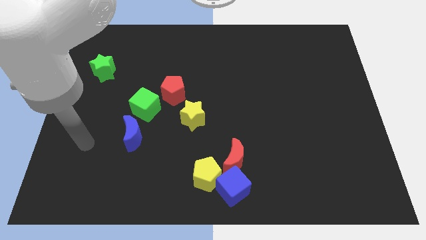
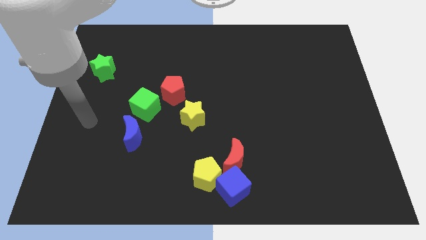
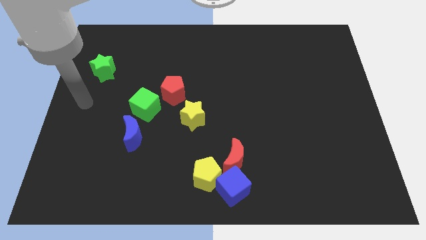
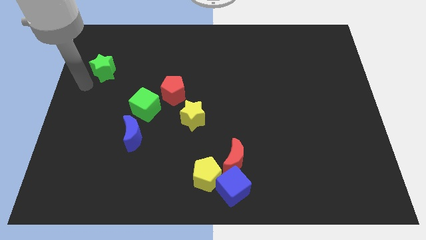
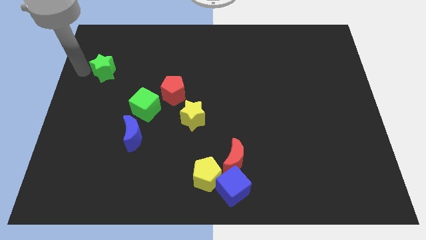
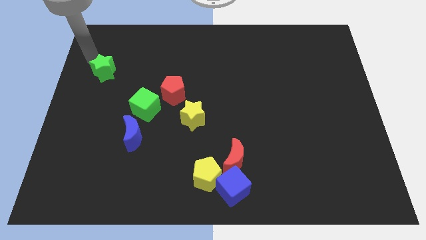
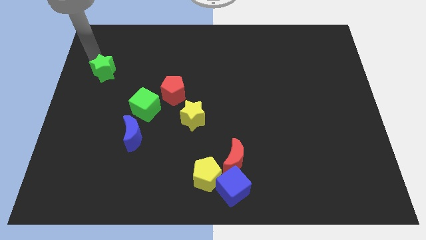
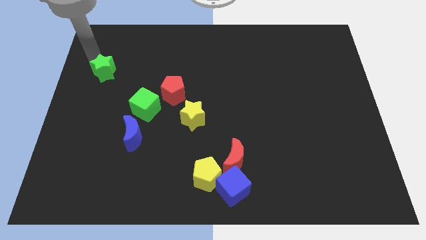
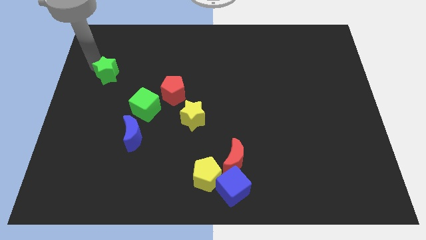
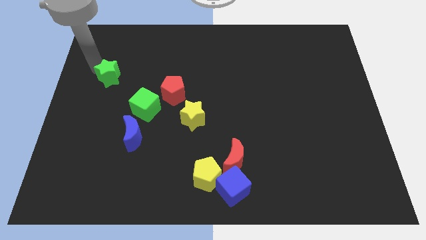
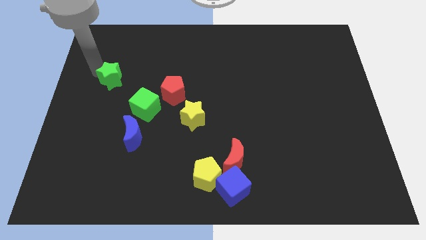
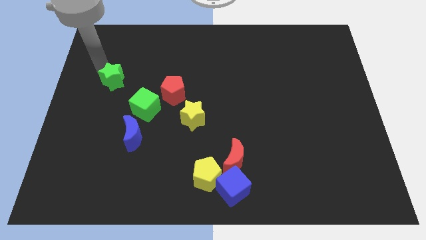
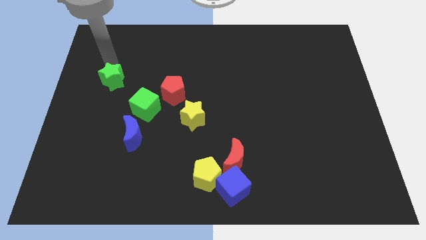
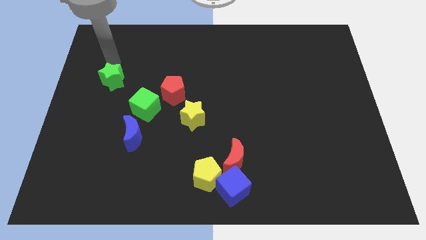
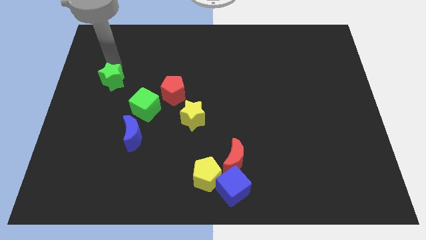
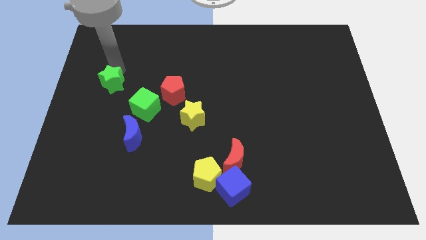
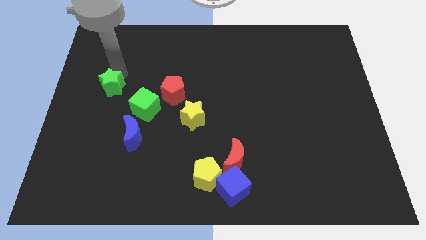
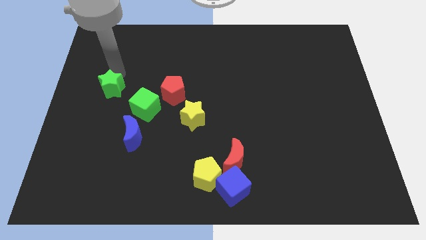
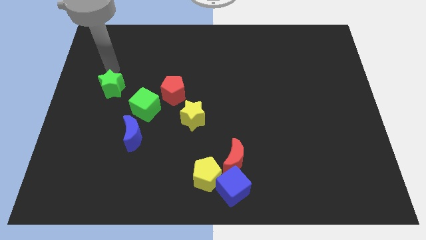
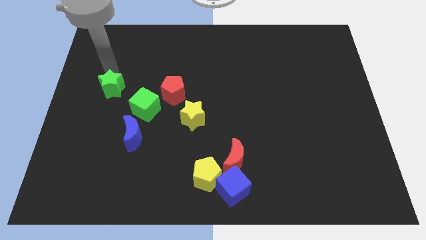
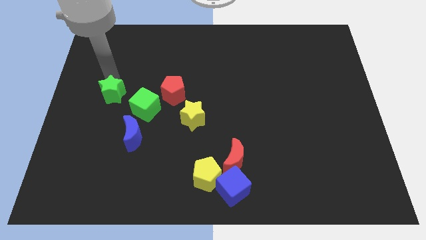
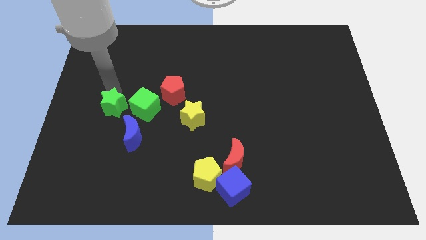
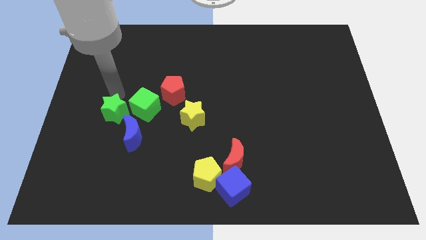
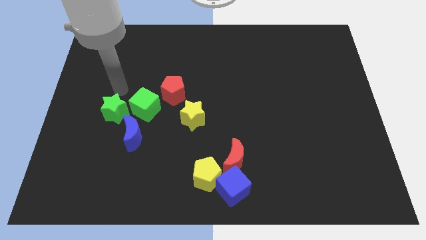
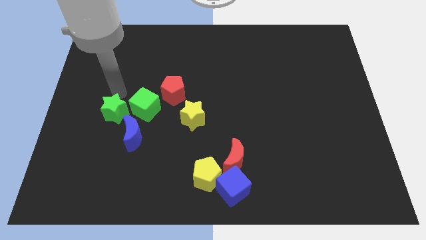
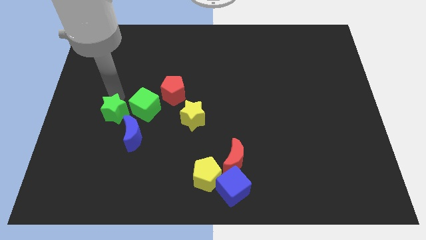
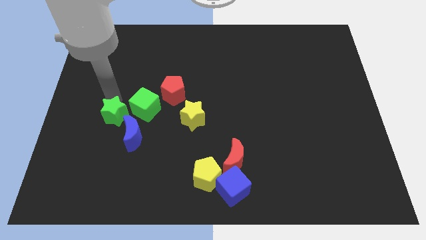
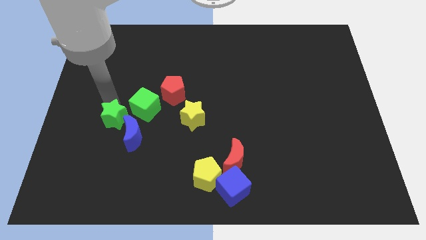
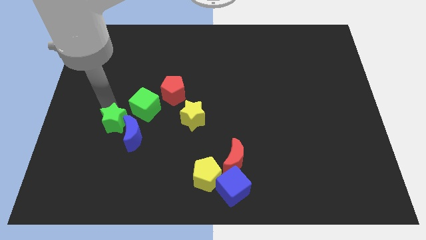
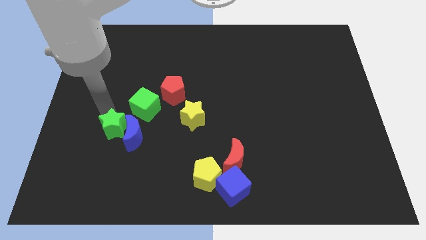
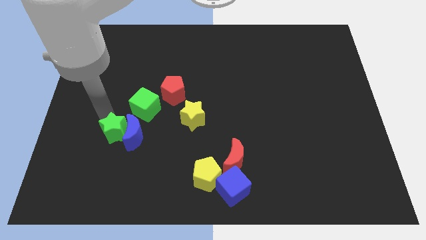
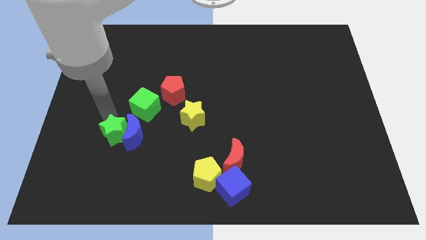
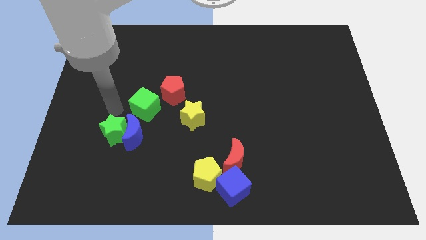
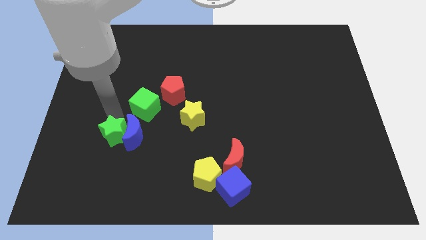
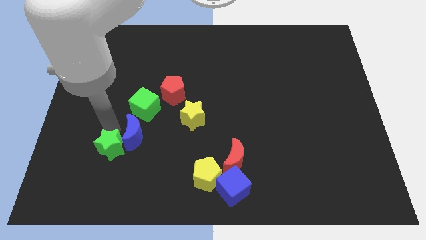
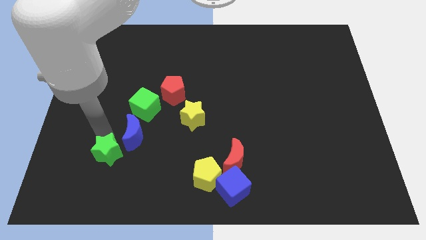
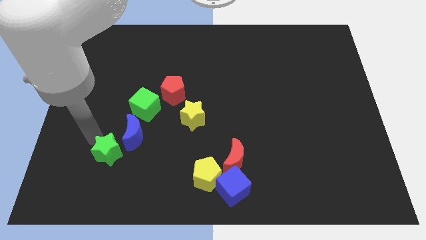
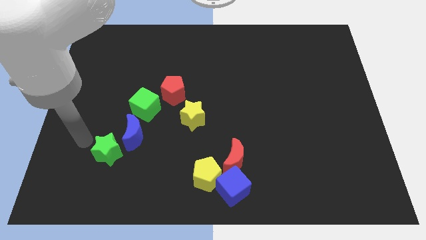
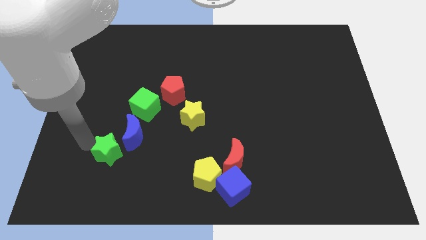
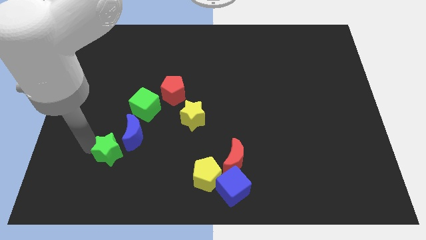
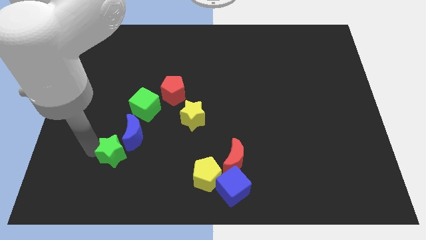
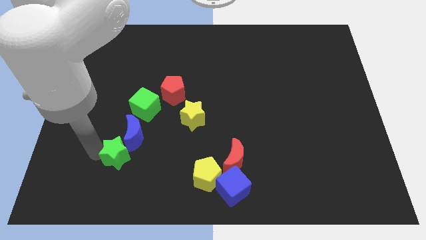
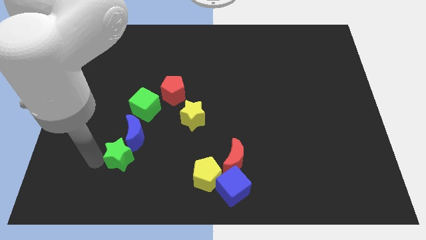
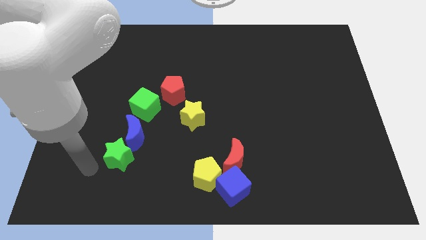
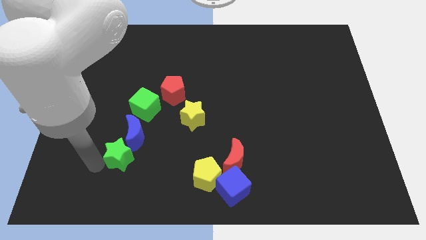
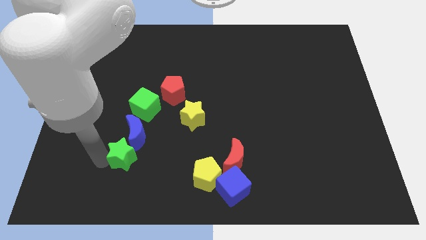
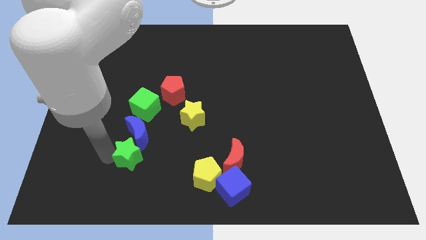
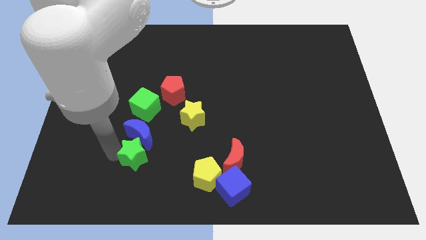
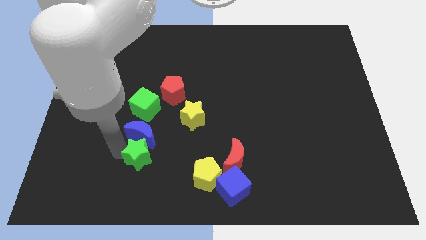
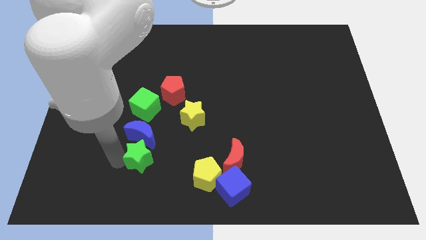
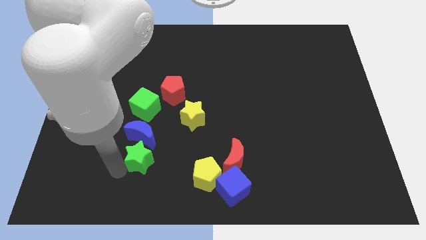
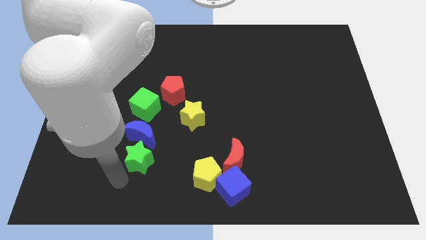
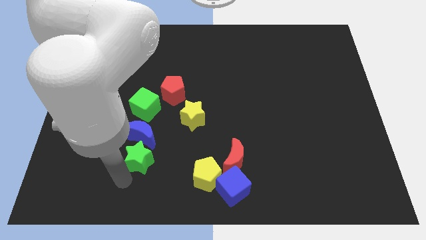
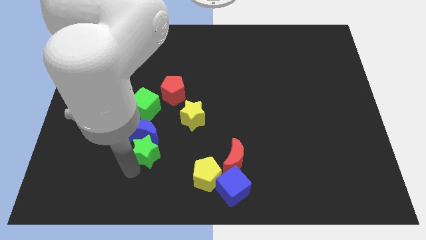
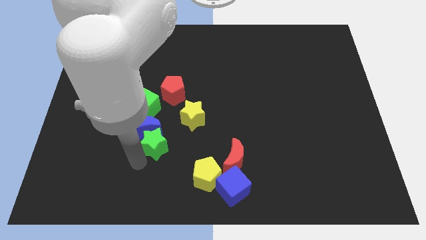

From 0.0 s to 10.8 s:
move the green star to the bottom side of the red pentagon

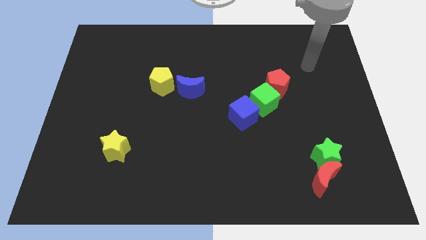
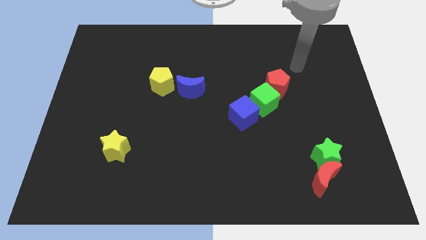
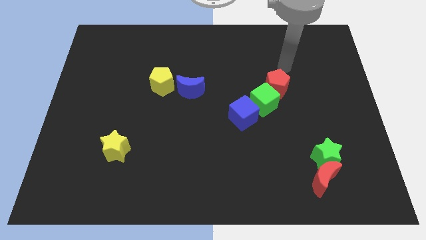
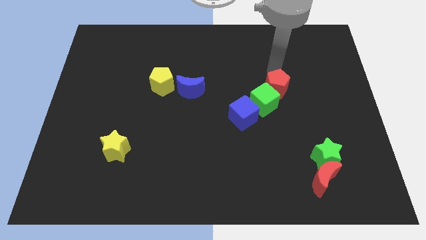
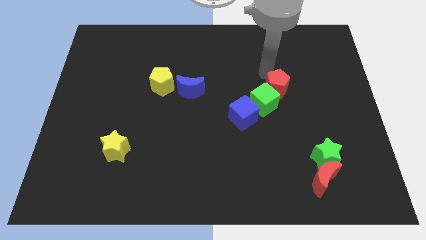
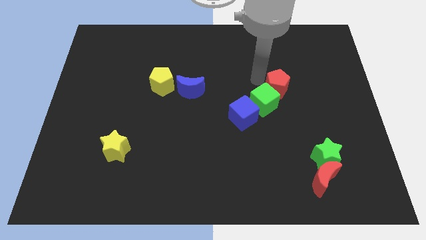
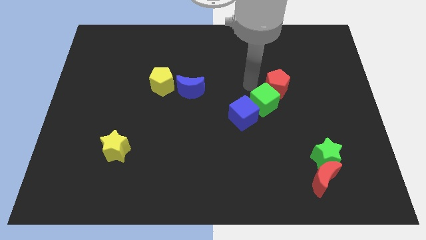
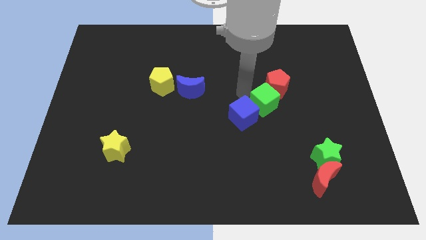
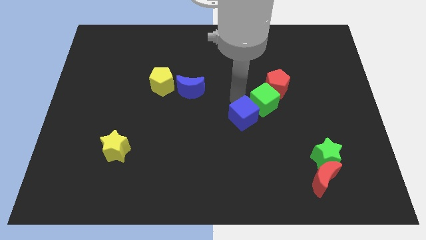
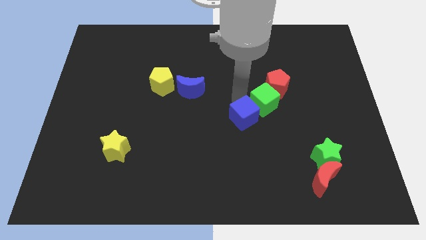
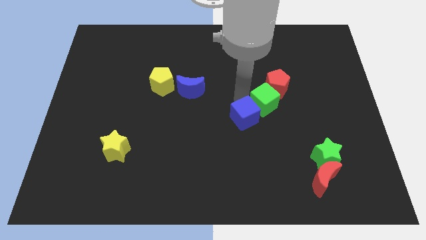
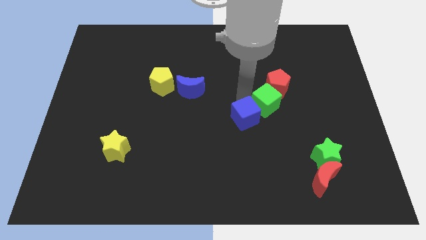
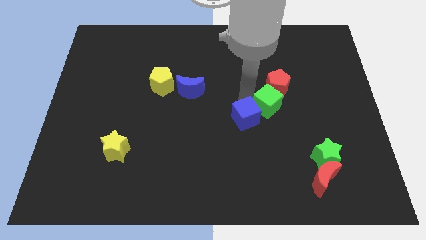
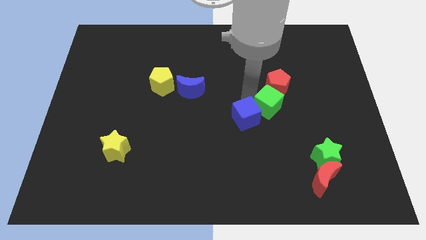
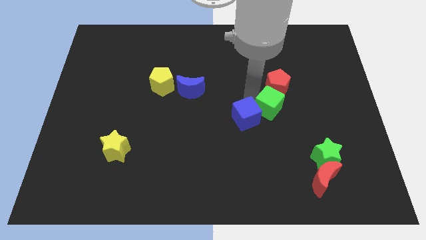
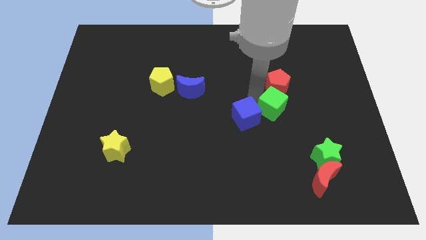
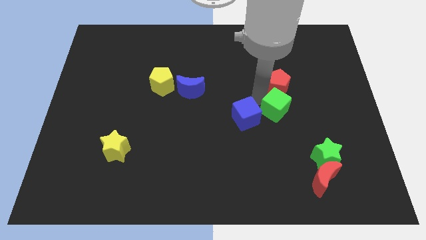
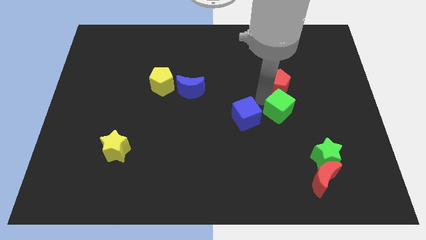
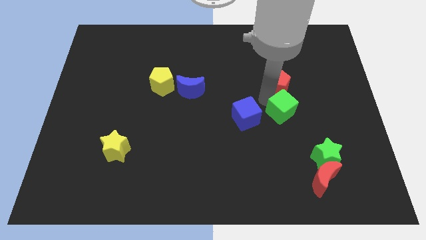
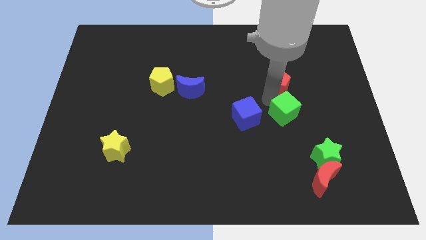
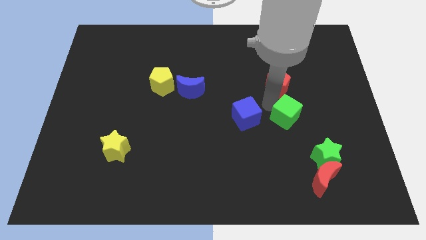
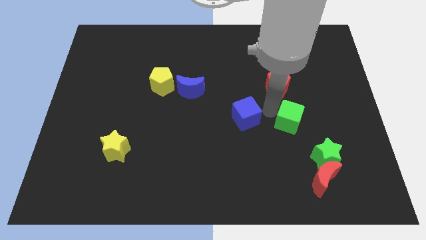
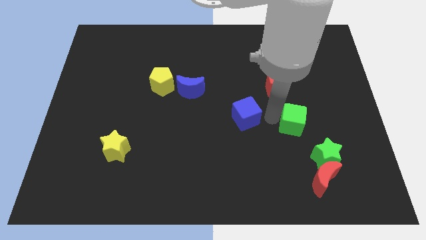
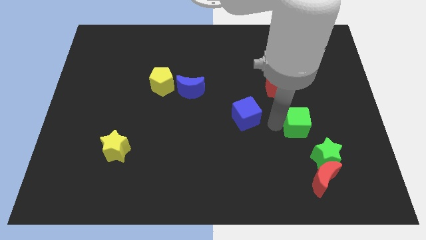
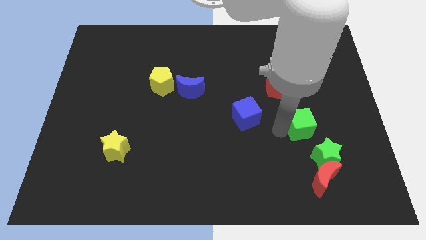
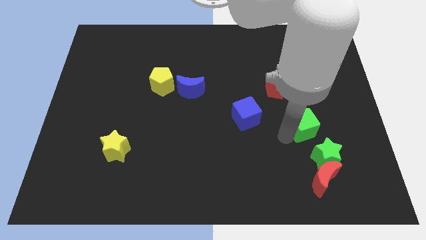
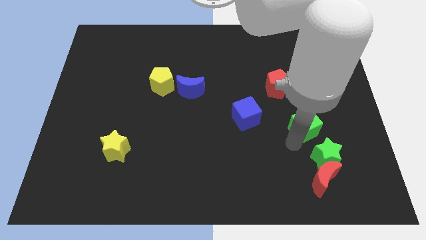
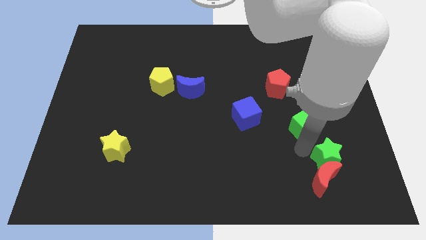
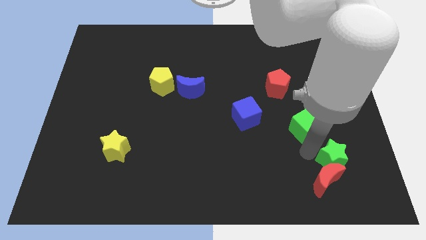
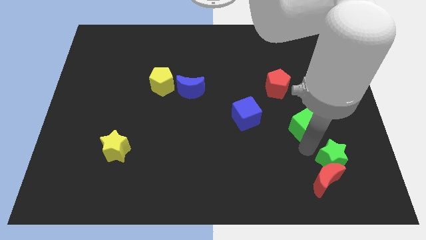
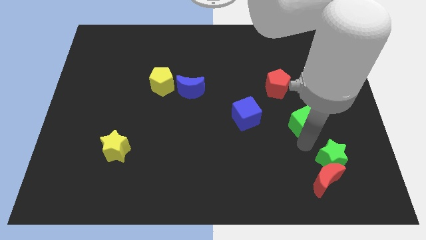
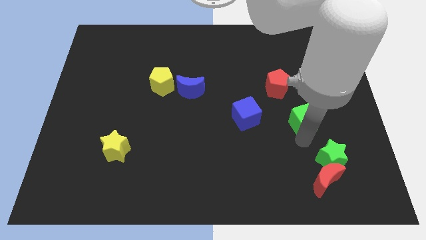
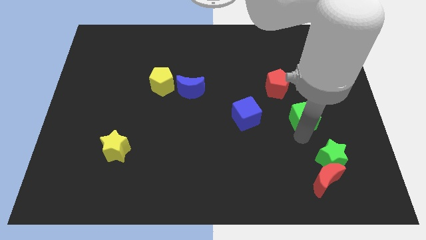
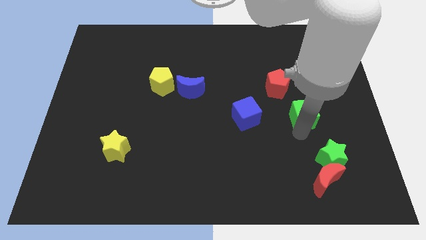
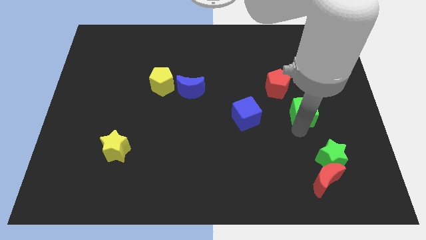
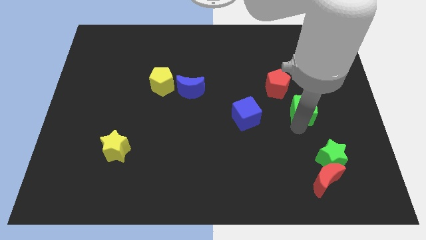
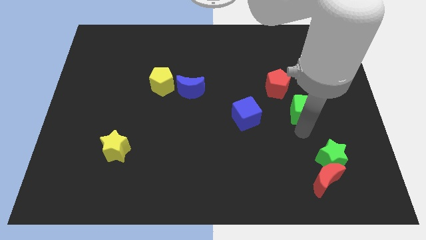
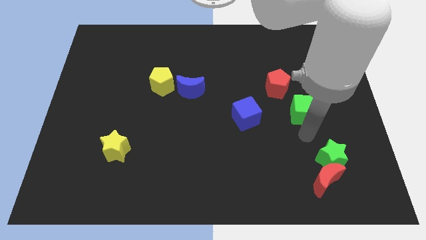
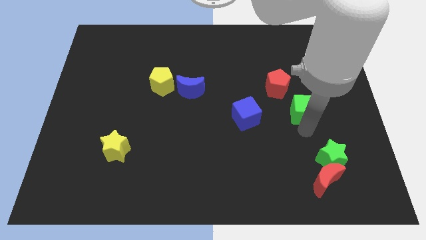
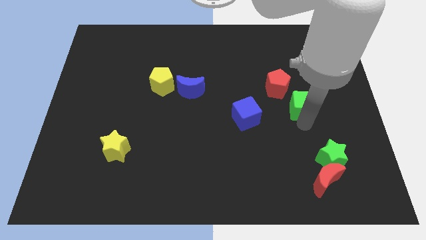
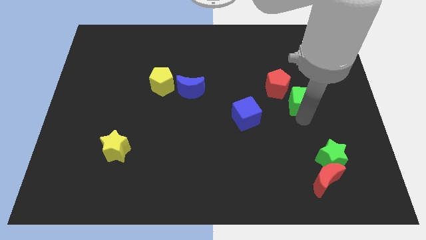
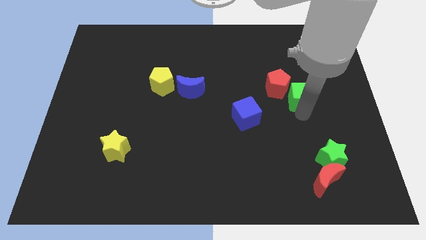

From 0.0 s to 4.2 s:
slide the green cube just right of the red pentagon
